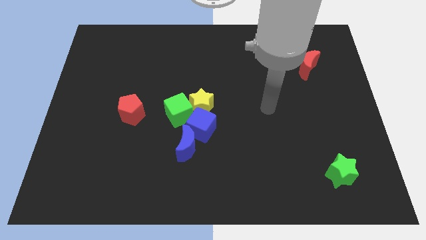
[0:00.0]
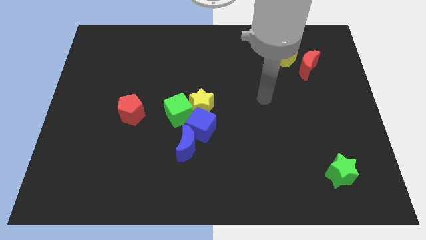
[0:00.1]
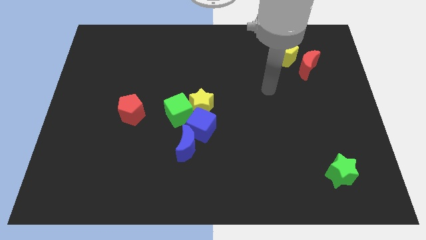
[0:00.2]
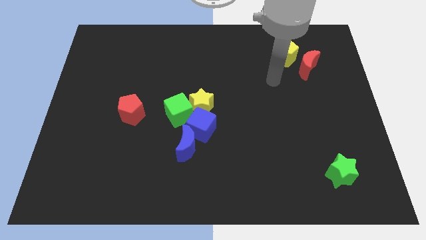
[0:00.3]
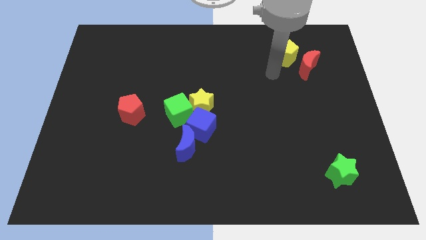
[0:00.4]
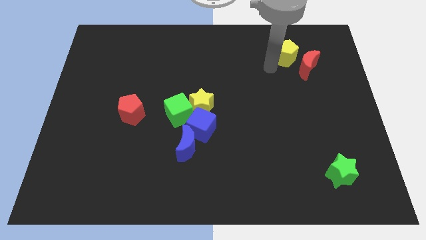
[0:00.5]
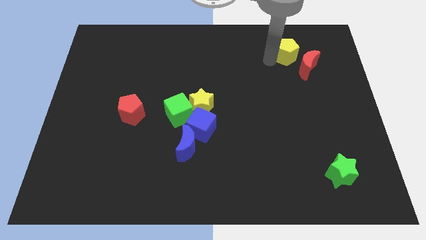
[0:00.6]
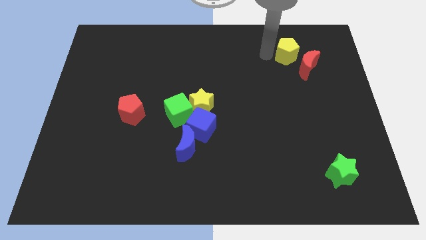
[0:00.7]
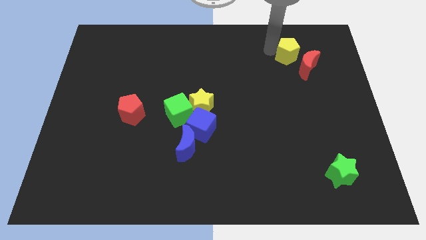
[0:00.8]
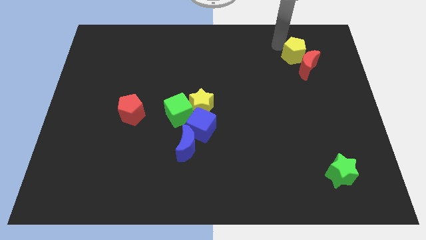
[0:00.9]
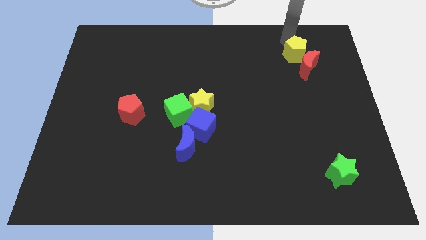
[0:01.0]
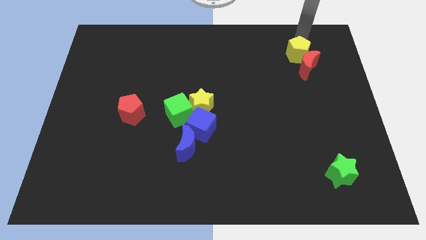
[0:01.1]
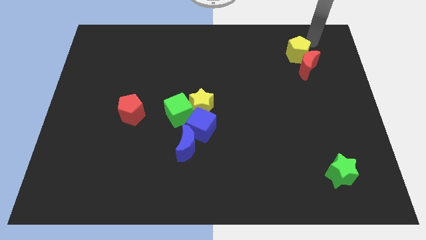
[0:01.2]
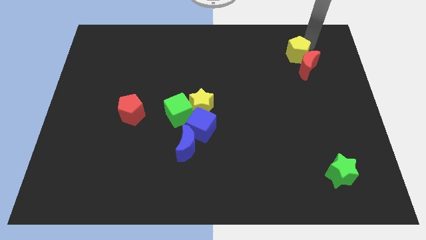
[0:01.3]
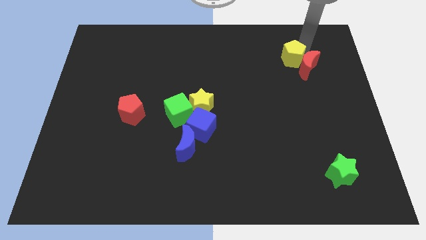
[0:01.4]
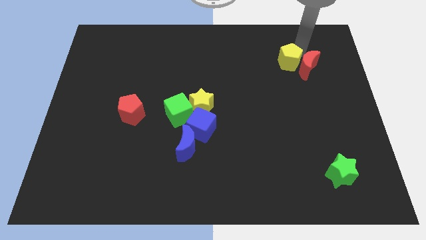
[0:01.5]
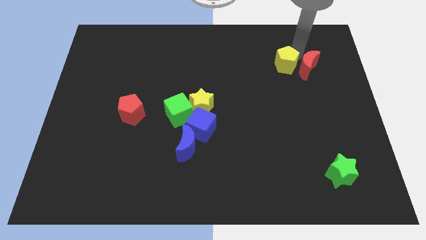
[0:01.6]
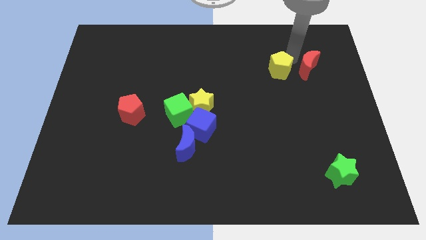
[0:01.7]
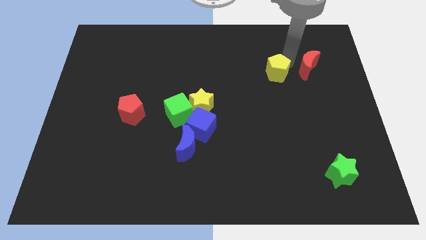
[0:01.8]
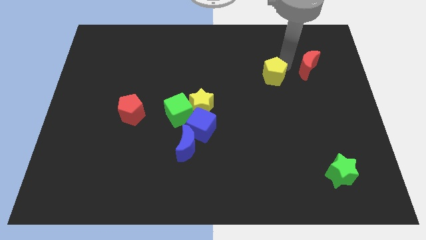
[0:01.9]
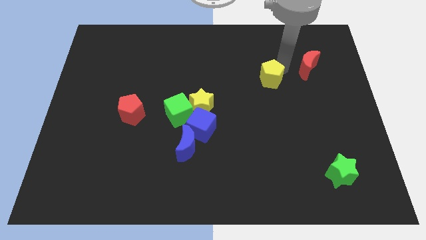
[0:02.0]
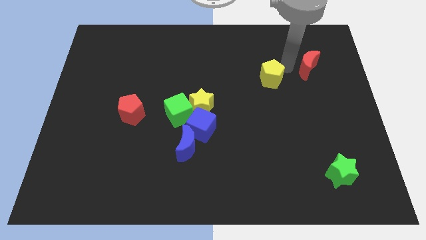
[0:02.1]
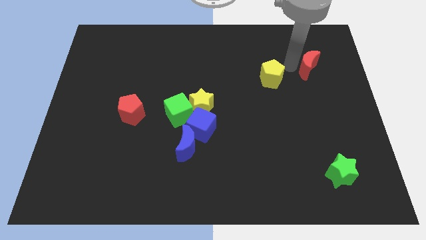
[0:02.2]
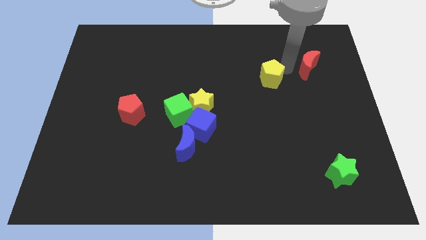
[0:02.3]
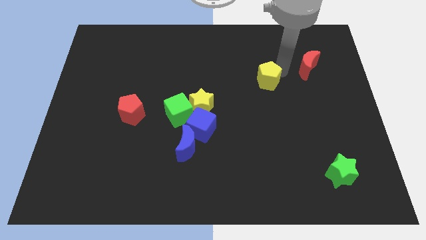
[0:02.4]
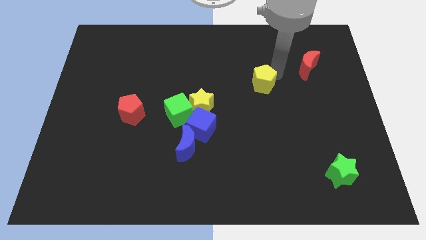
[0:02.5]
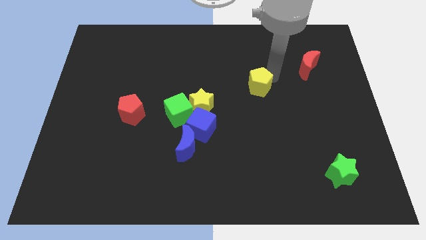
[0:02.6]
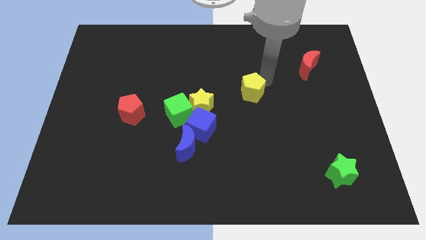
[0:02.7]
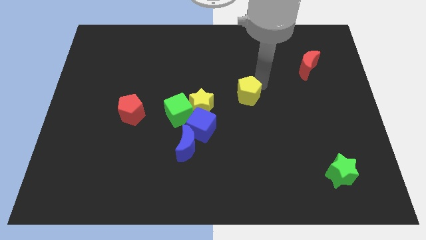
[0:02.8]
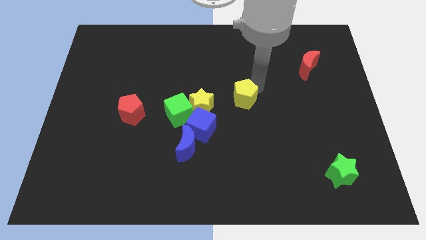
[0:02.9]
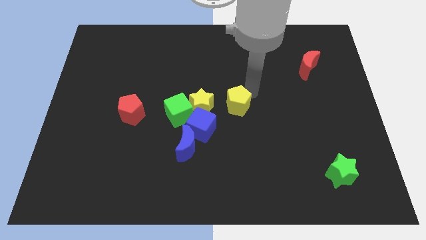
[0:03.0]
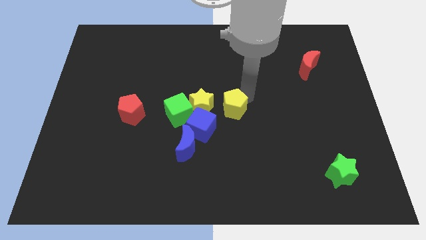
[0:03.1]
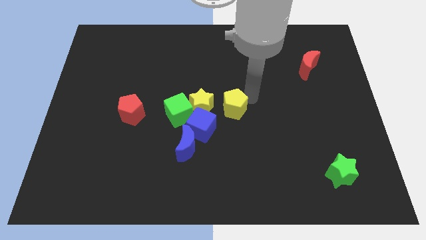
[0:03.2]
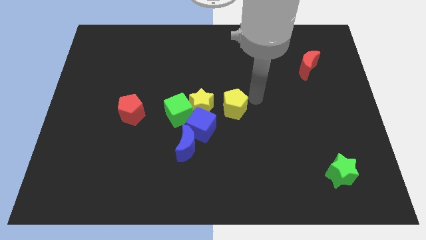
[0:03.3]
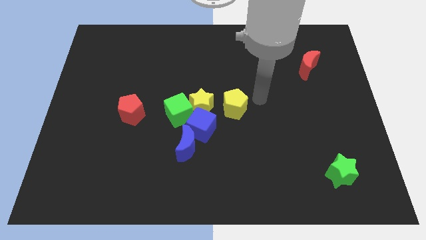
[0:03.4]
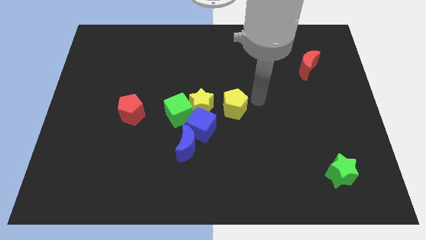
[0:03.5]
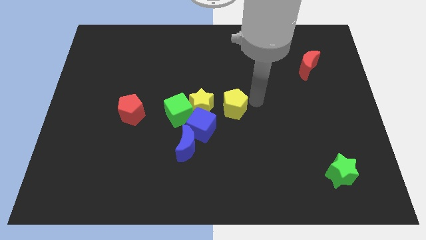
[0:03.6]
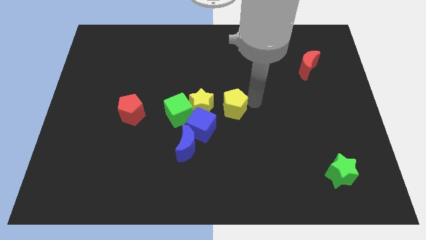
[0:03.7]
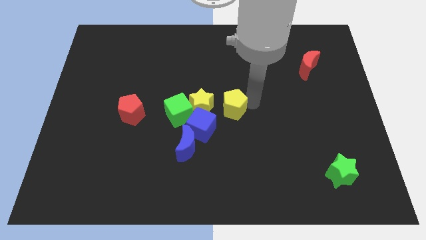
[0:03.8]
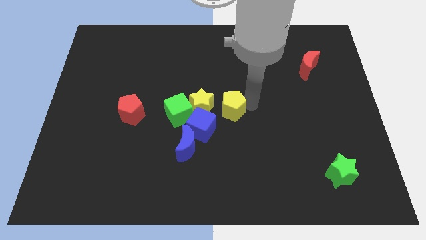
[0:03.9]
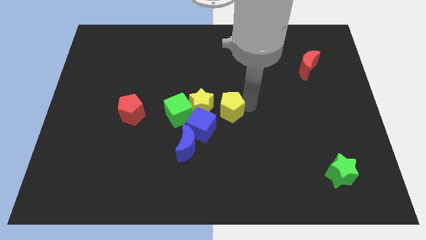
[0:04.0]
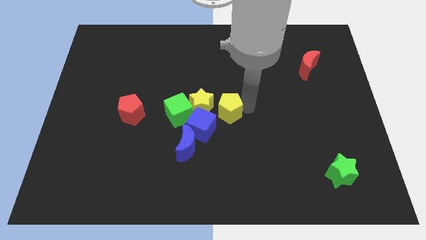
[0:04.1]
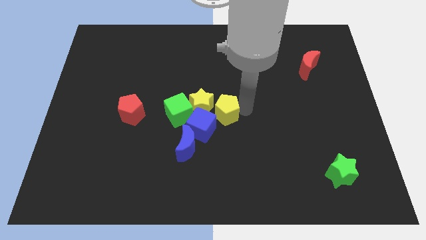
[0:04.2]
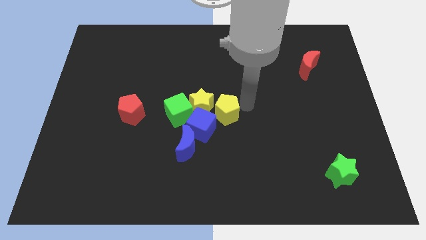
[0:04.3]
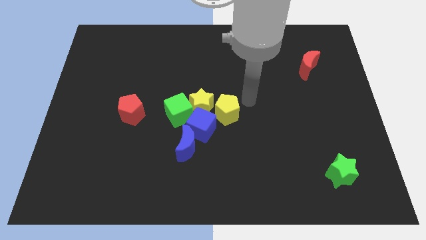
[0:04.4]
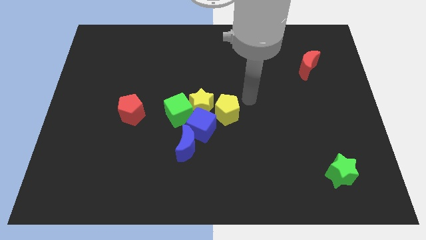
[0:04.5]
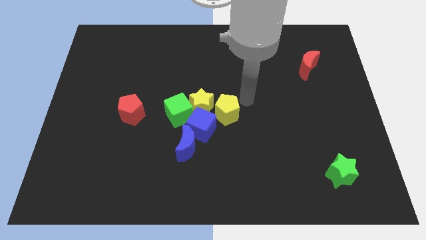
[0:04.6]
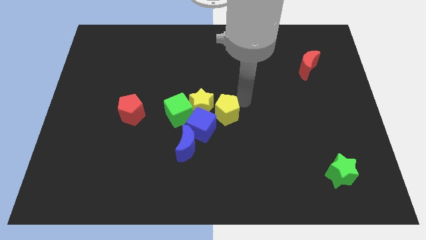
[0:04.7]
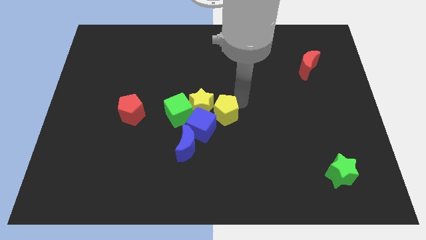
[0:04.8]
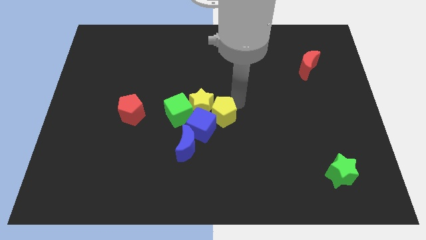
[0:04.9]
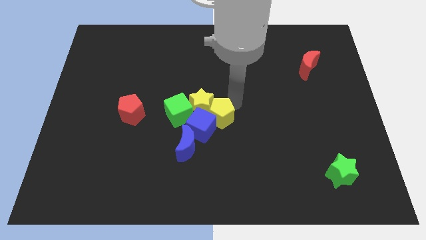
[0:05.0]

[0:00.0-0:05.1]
move the yellow pentagon towards the blue cube

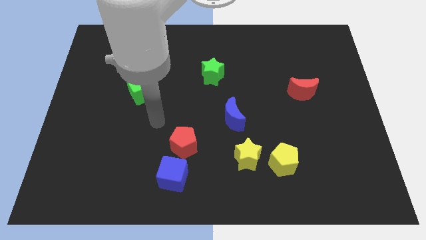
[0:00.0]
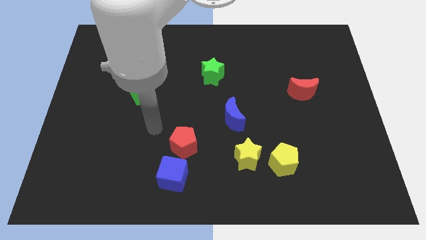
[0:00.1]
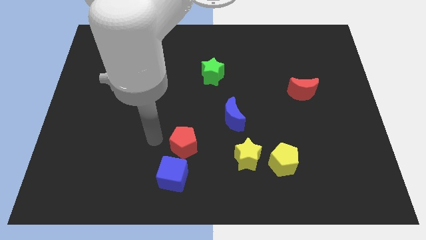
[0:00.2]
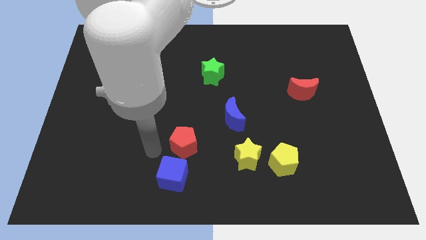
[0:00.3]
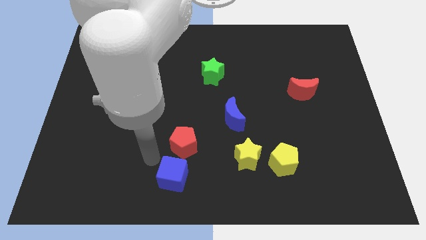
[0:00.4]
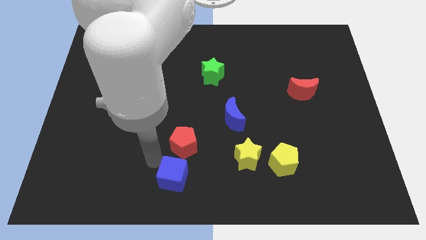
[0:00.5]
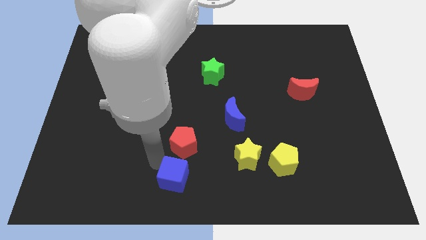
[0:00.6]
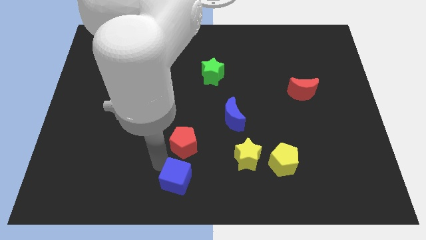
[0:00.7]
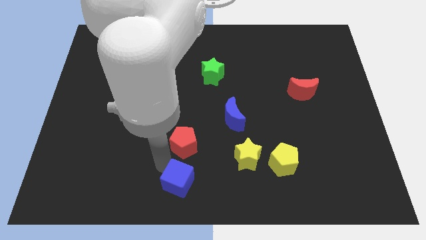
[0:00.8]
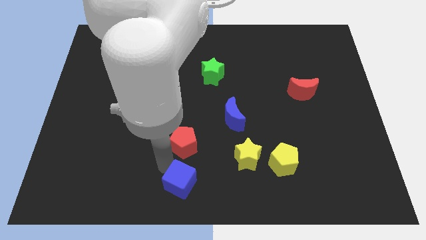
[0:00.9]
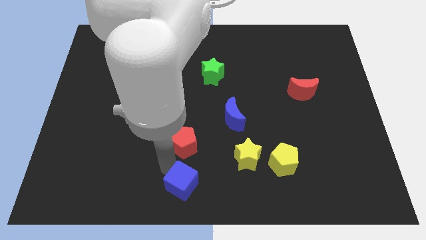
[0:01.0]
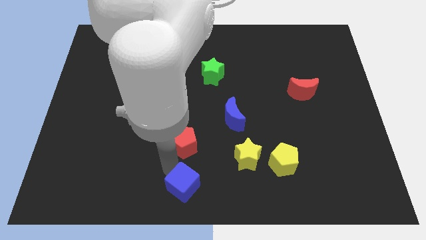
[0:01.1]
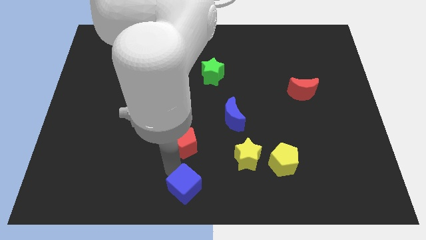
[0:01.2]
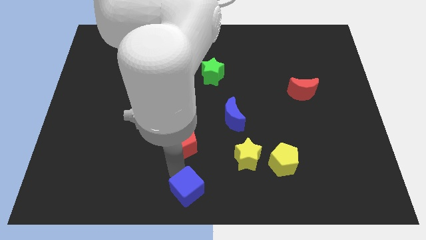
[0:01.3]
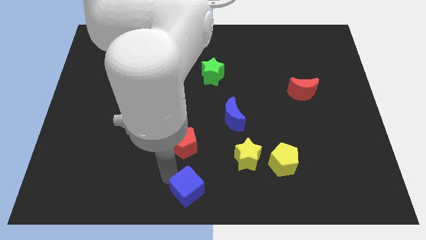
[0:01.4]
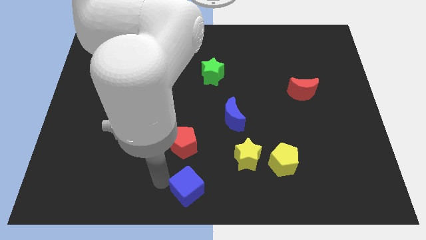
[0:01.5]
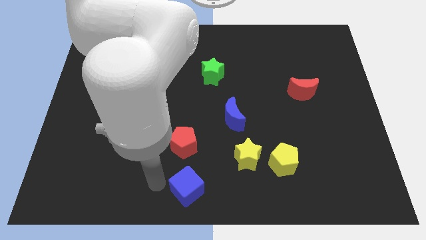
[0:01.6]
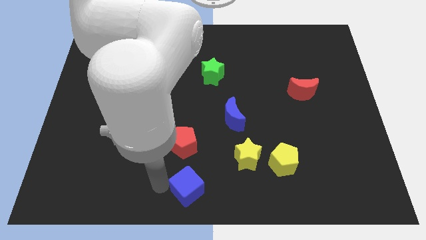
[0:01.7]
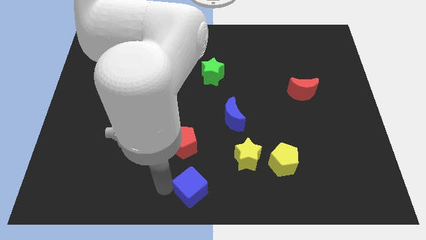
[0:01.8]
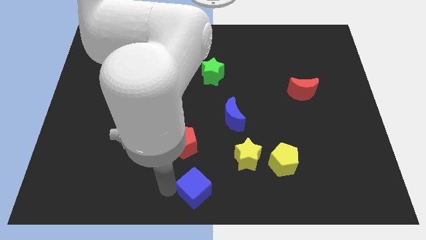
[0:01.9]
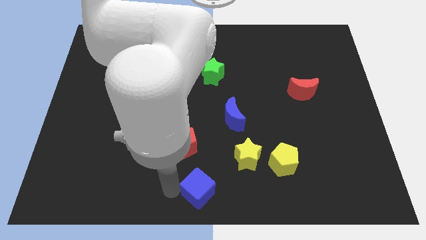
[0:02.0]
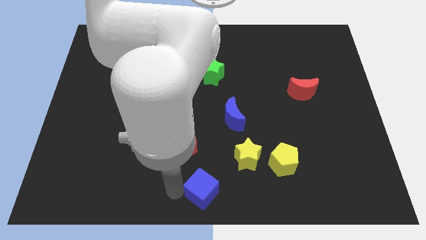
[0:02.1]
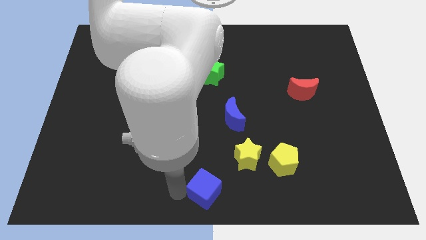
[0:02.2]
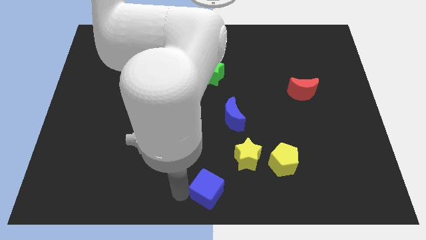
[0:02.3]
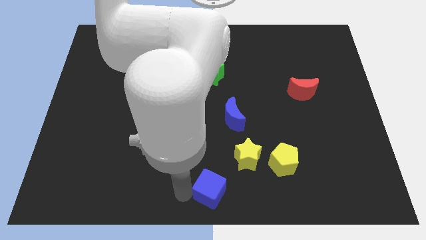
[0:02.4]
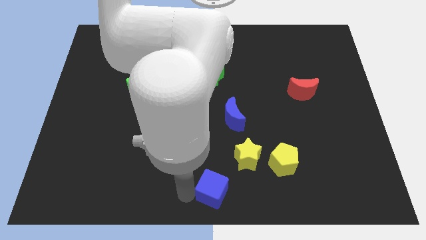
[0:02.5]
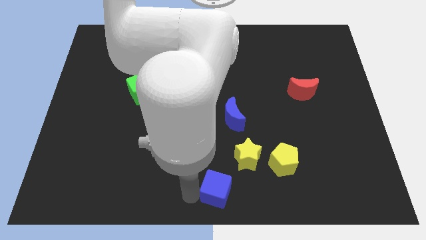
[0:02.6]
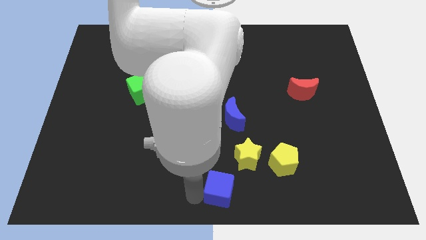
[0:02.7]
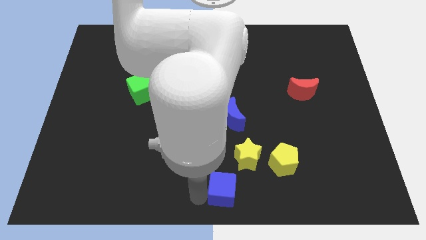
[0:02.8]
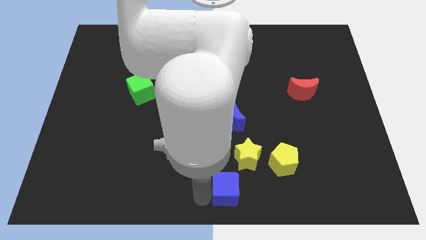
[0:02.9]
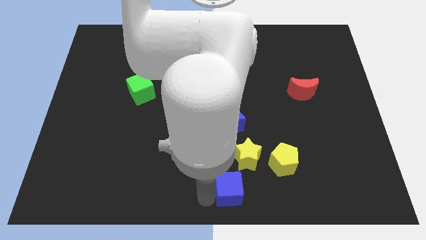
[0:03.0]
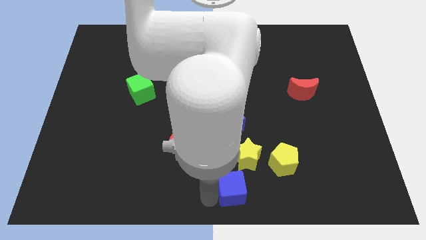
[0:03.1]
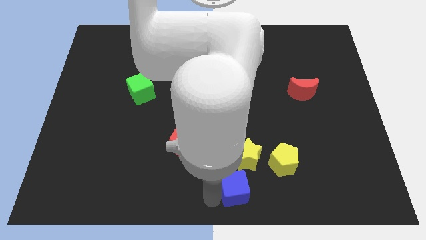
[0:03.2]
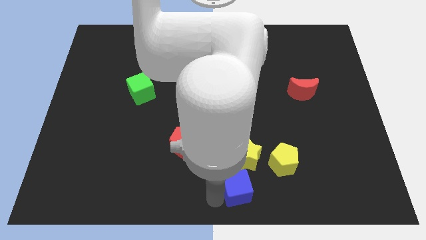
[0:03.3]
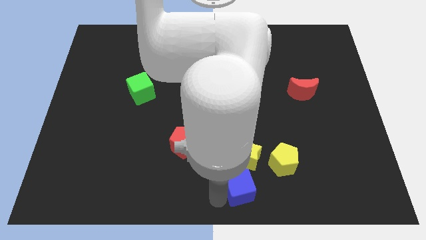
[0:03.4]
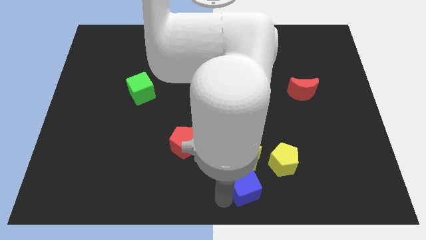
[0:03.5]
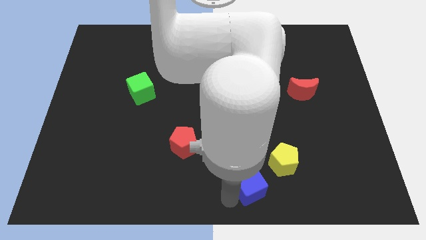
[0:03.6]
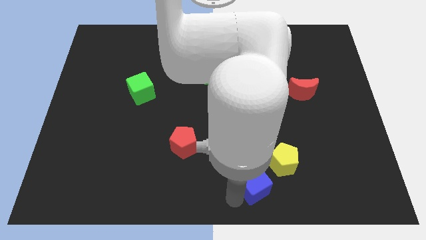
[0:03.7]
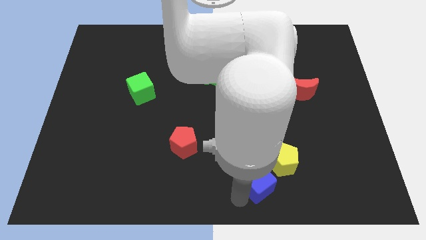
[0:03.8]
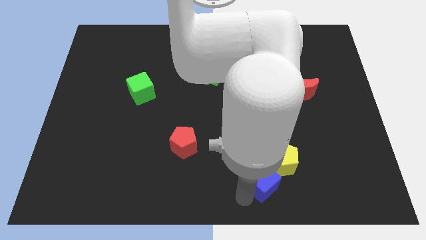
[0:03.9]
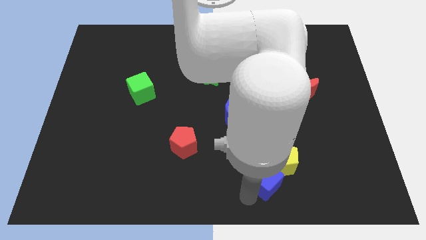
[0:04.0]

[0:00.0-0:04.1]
move the blue cube next to the yellow pentagon
